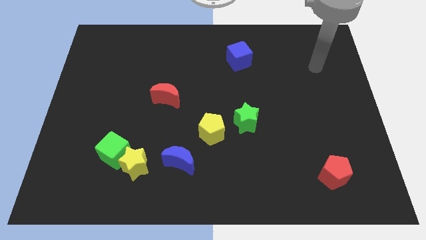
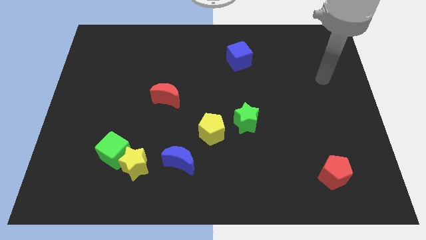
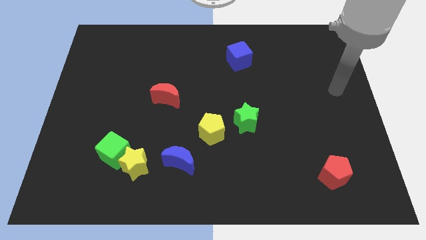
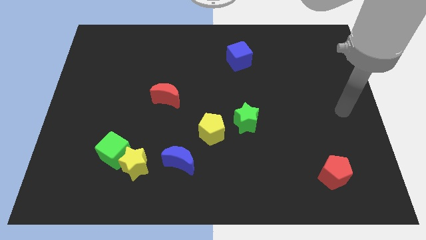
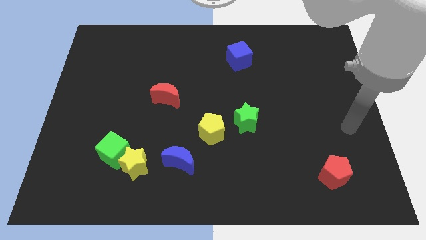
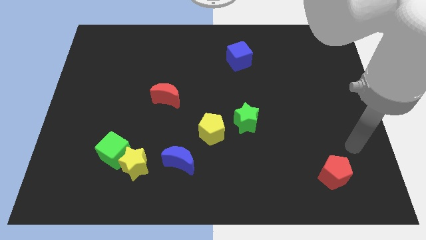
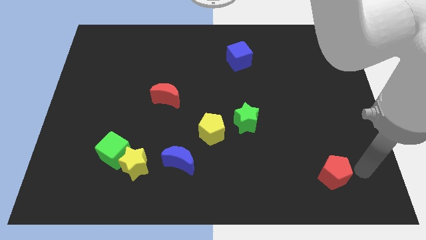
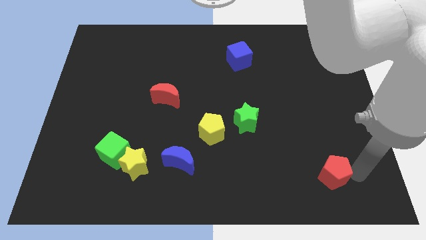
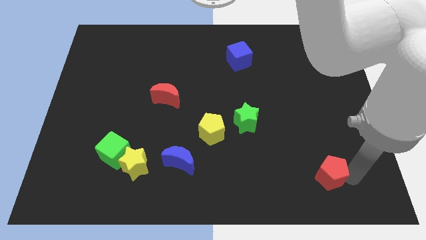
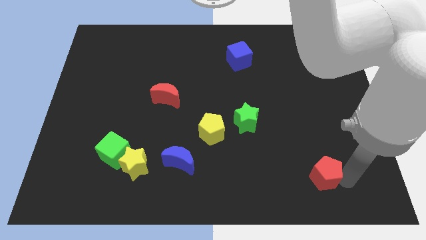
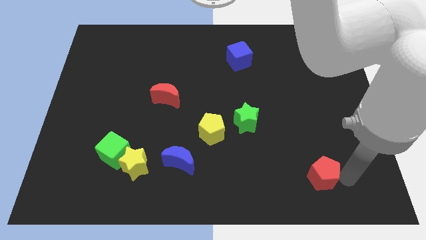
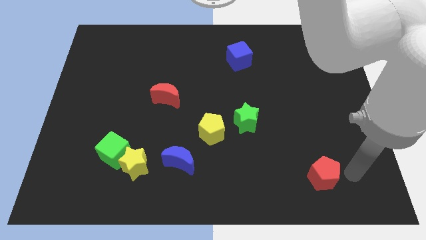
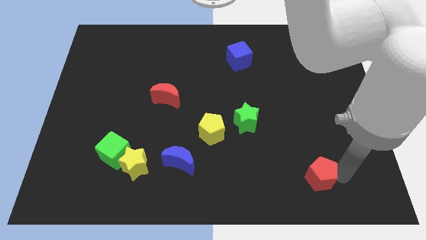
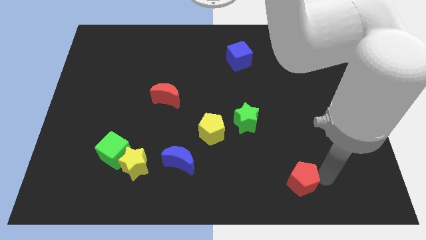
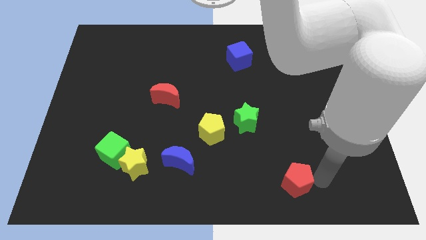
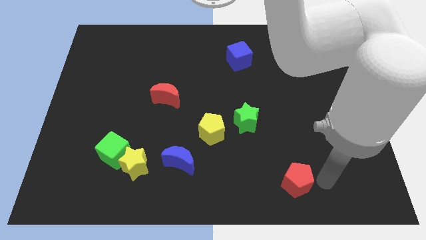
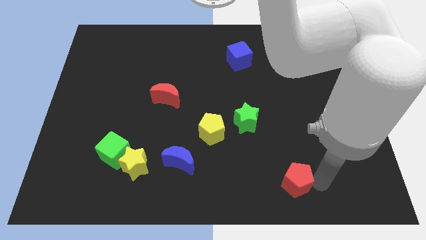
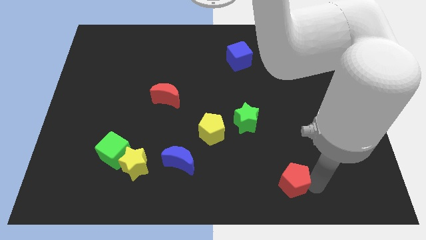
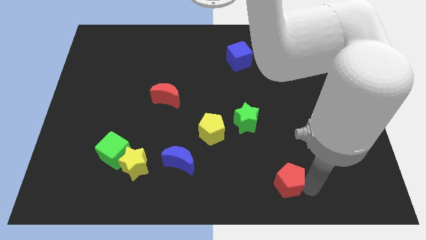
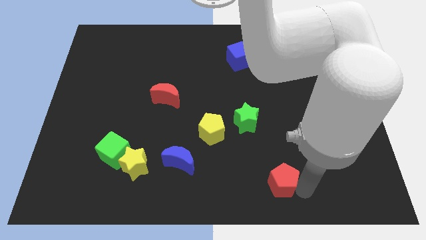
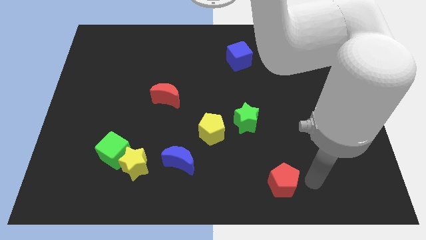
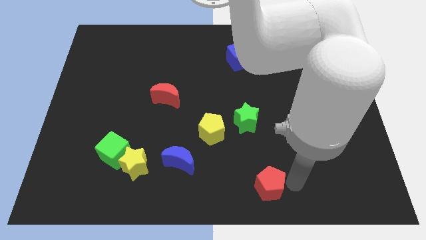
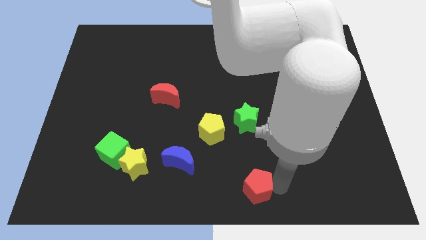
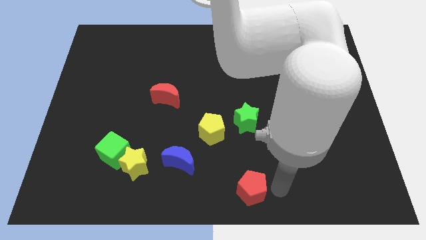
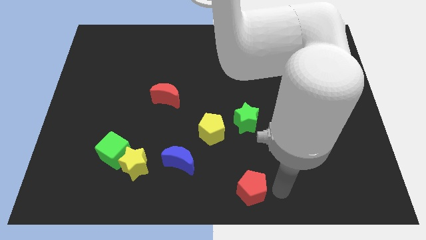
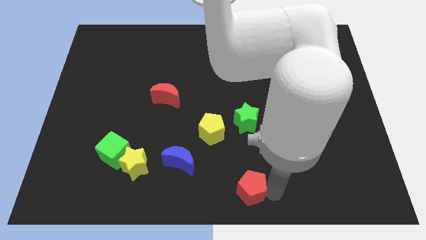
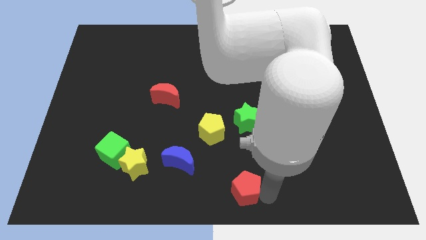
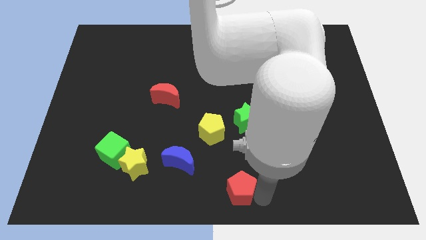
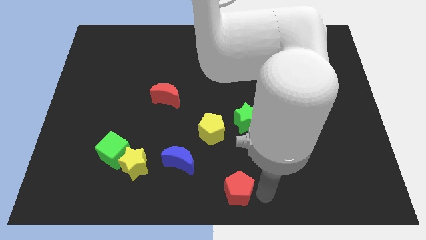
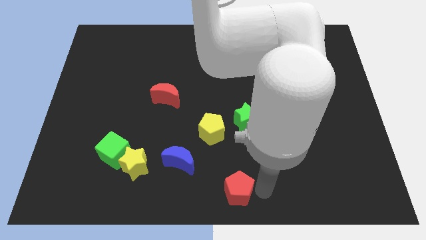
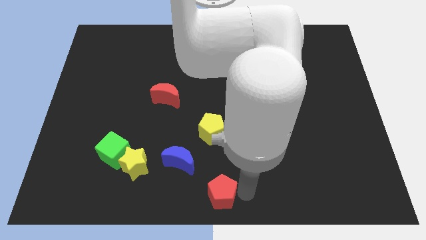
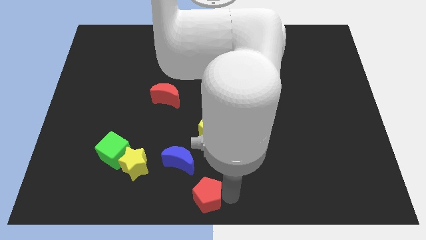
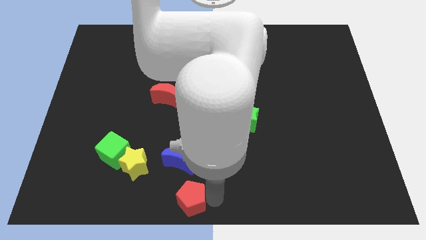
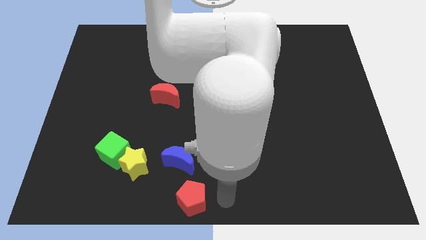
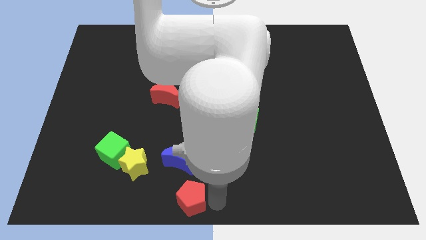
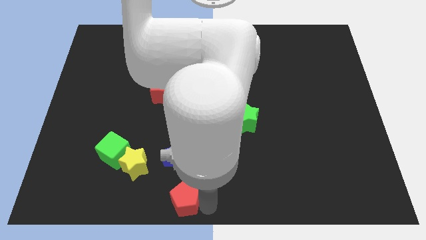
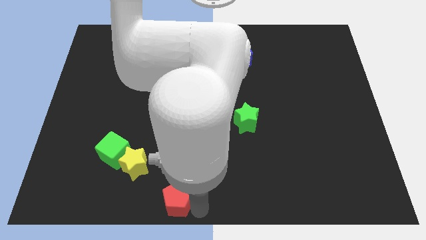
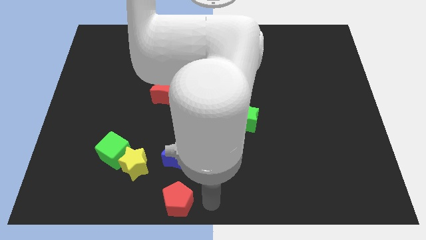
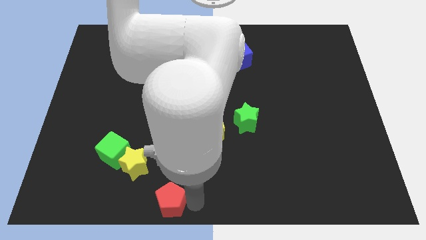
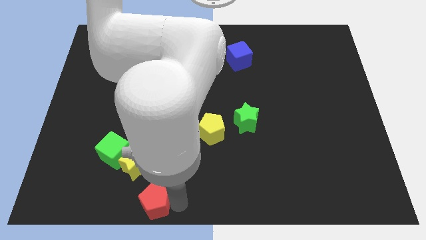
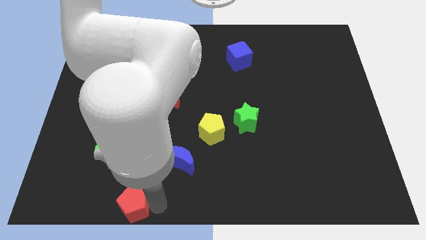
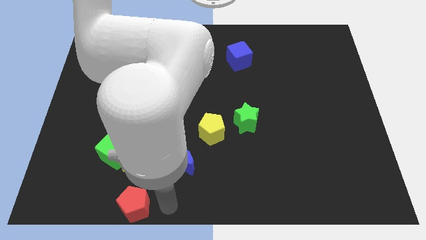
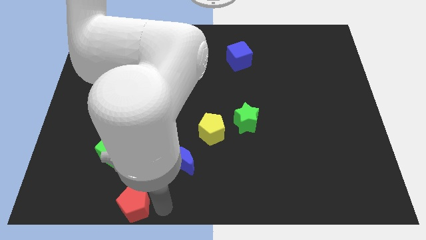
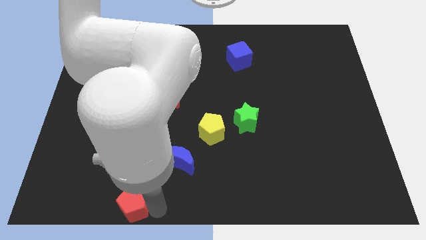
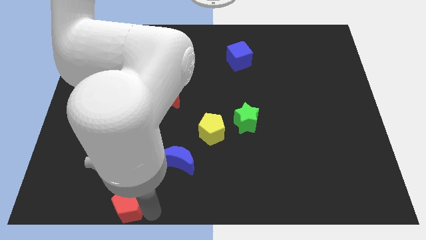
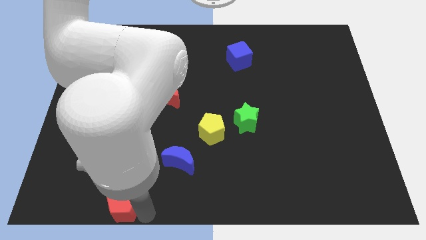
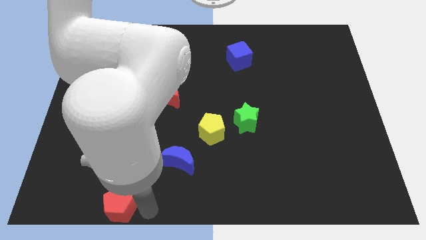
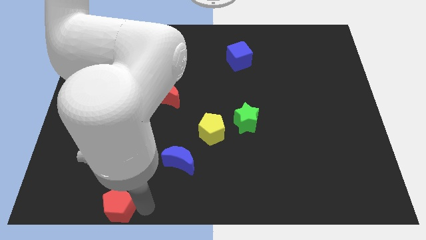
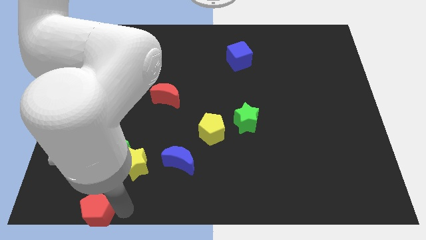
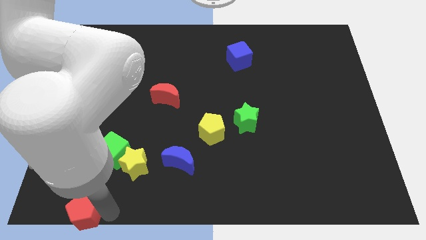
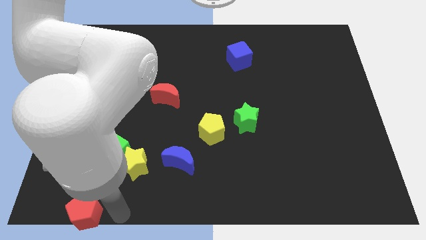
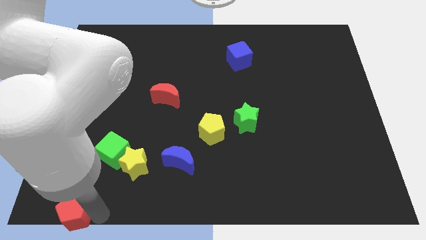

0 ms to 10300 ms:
push the red pentagon to the bottom left of the board

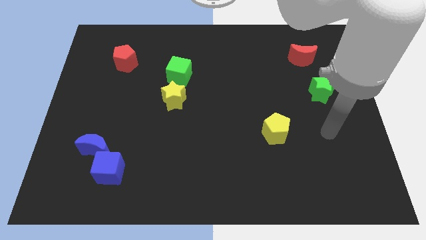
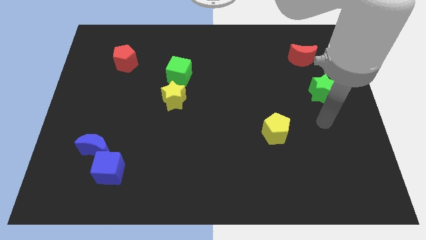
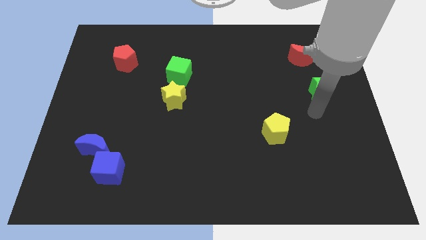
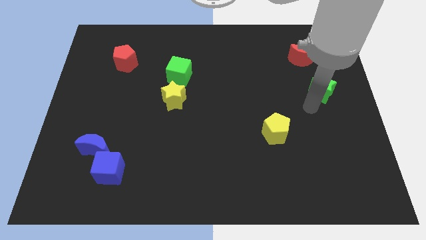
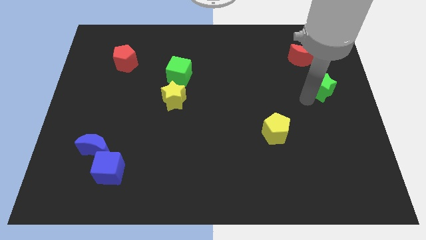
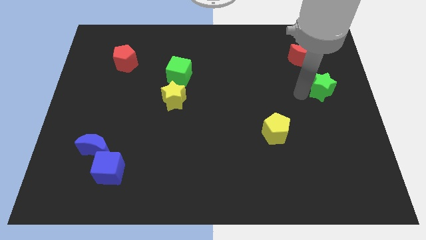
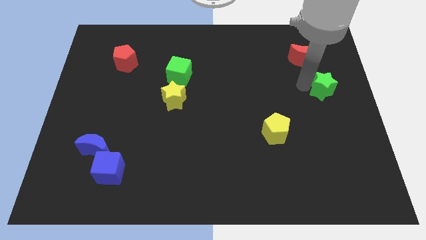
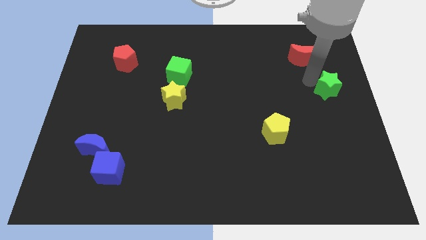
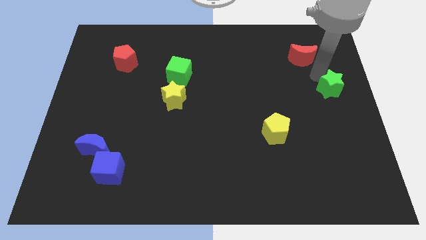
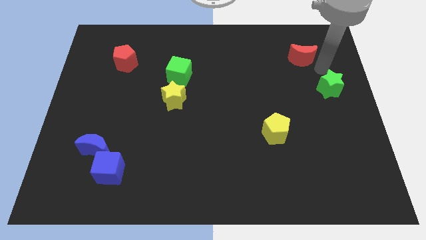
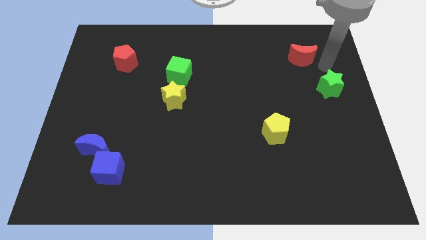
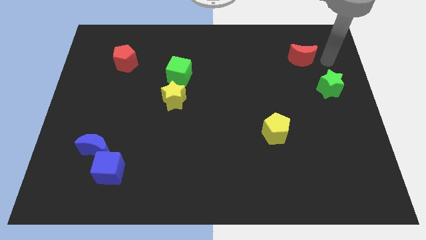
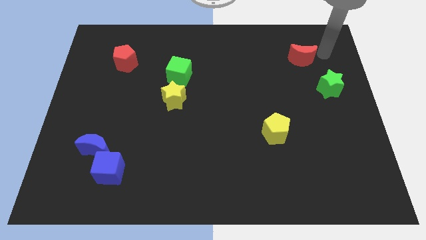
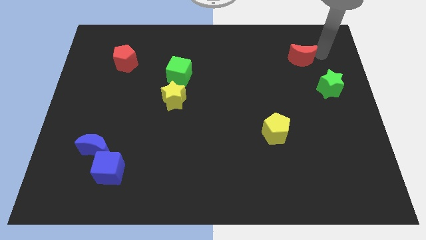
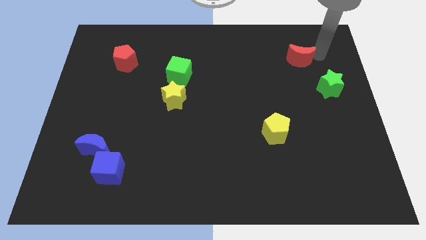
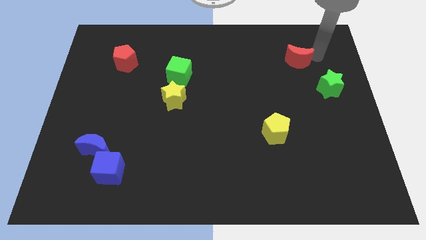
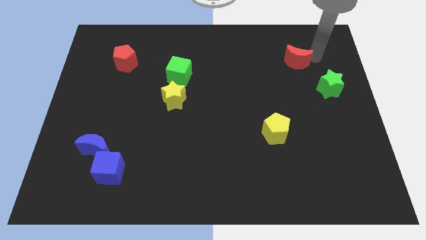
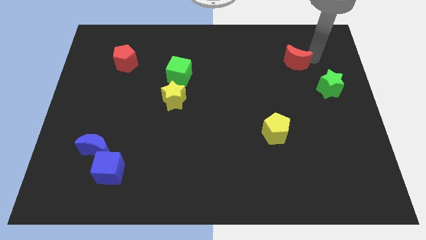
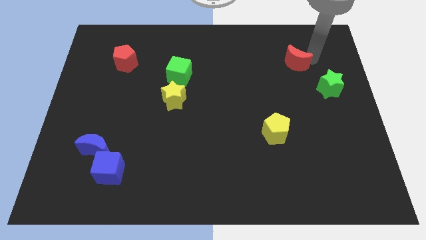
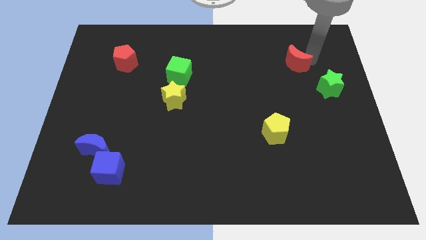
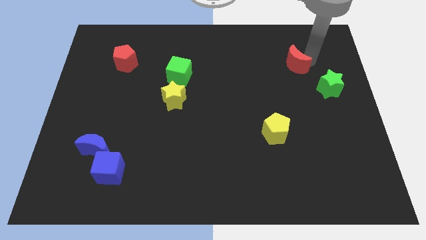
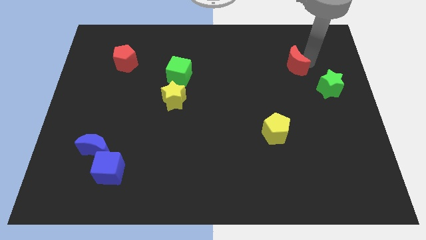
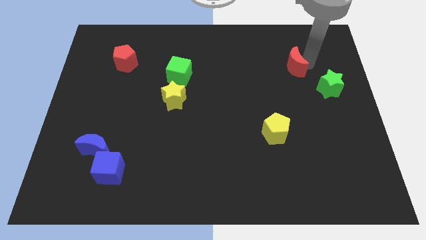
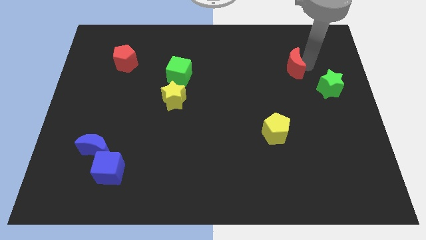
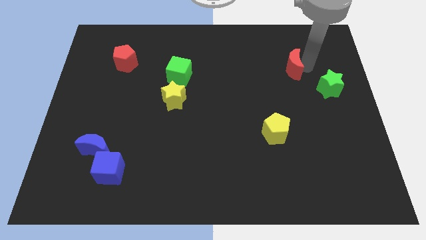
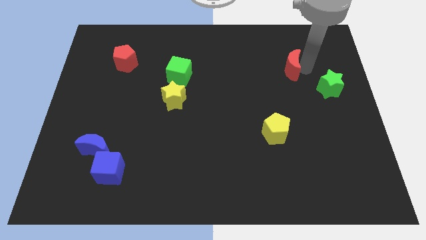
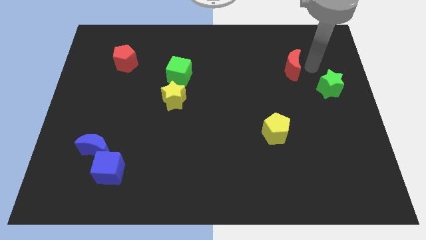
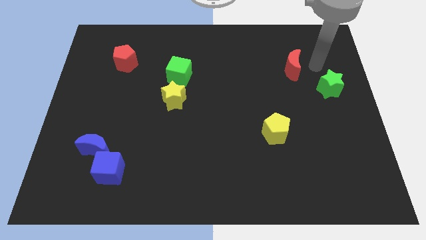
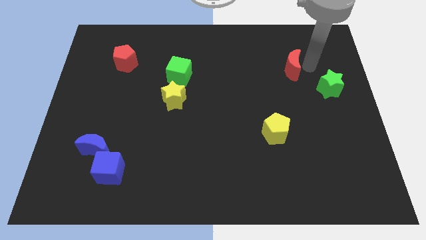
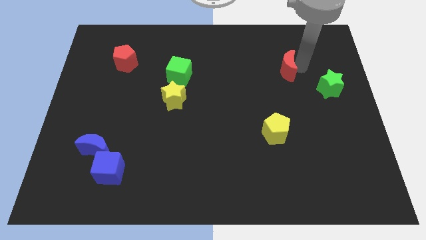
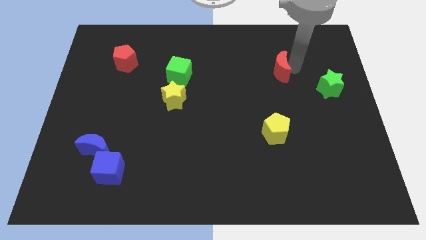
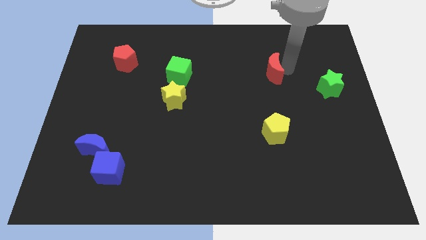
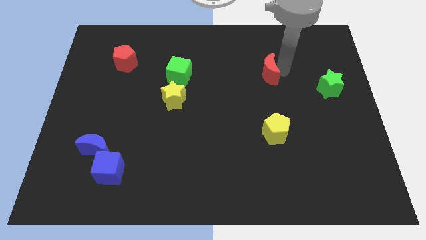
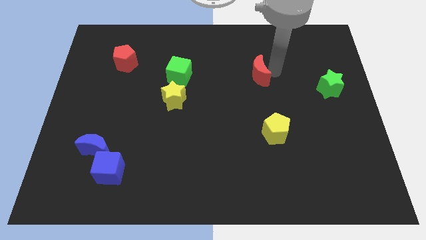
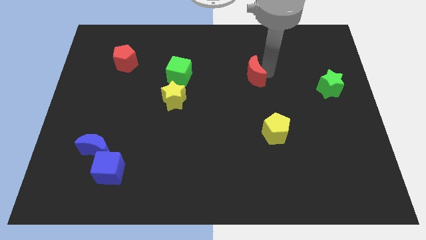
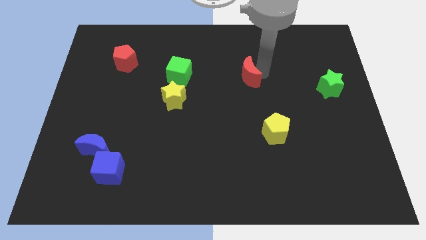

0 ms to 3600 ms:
put the red moon to the middle
